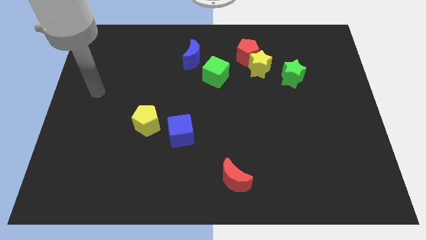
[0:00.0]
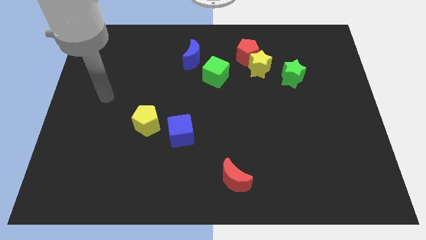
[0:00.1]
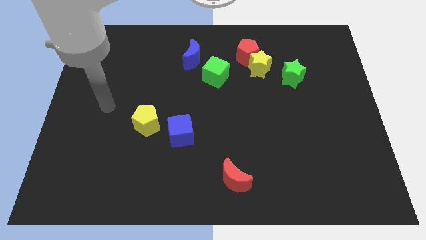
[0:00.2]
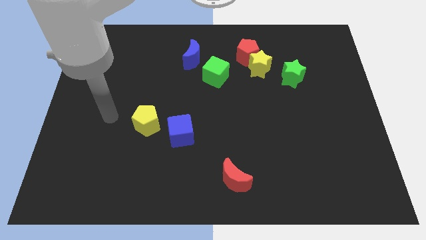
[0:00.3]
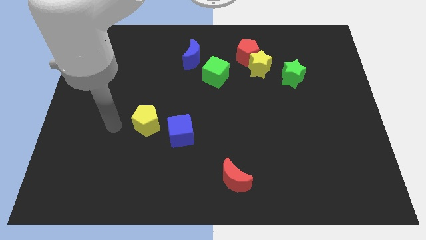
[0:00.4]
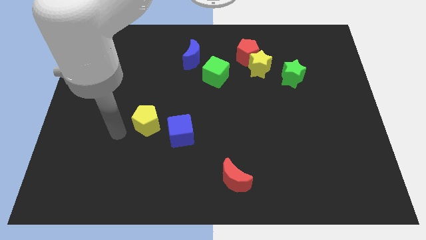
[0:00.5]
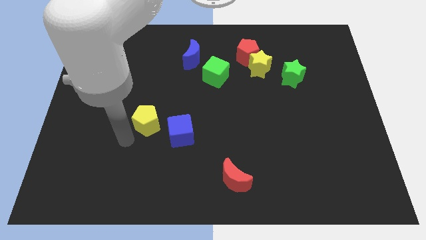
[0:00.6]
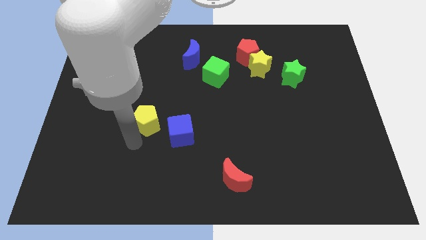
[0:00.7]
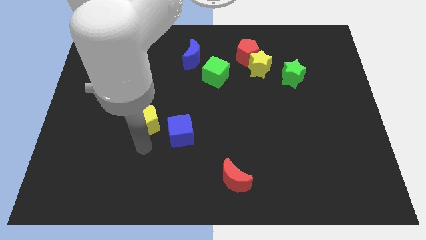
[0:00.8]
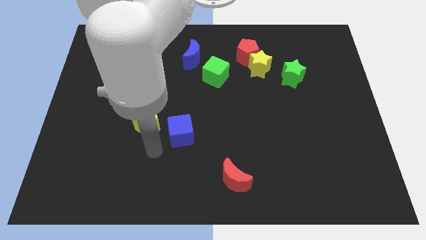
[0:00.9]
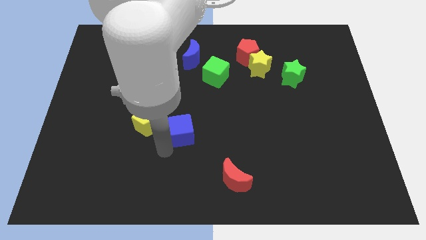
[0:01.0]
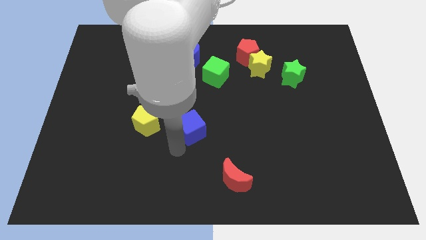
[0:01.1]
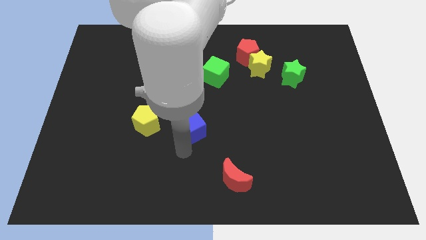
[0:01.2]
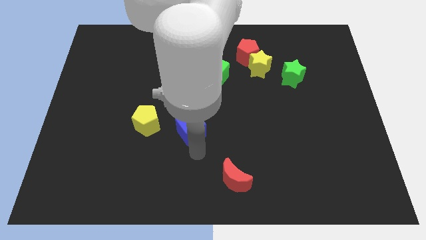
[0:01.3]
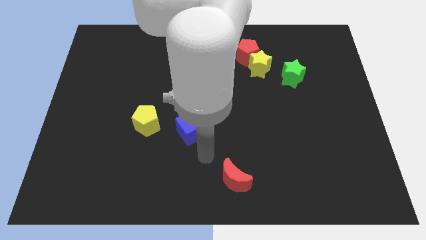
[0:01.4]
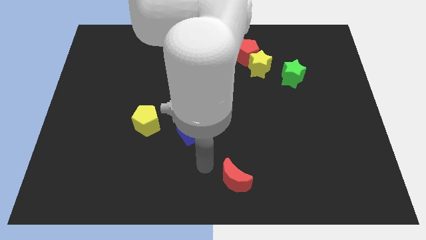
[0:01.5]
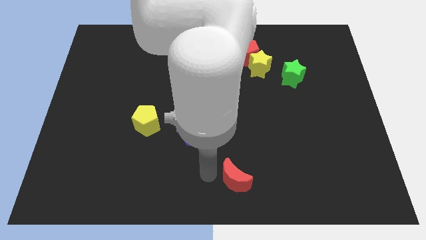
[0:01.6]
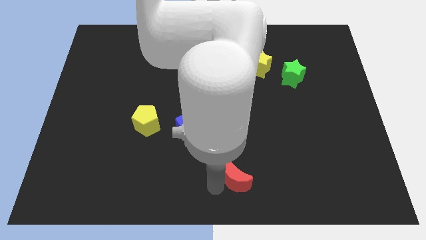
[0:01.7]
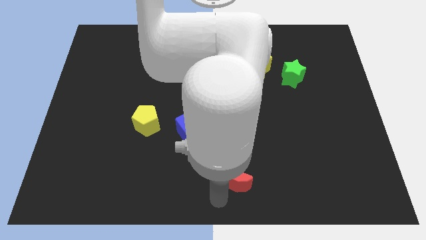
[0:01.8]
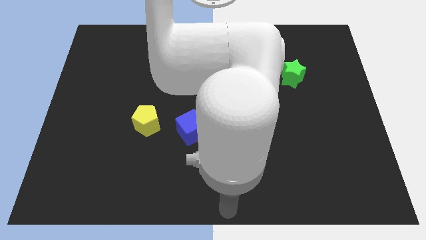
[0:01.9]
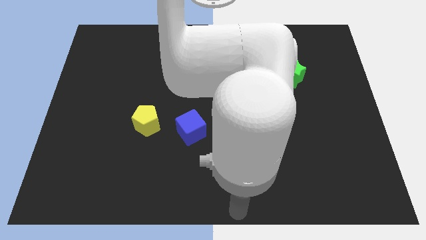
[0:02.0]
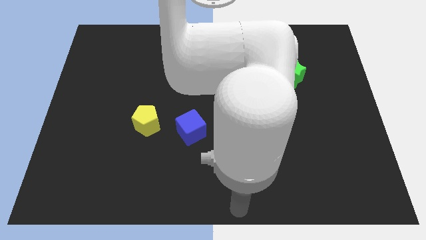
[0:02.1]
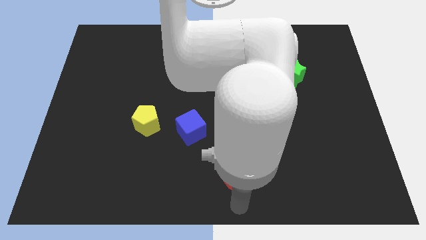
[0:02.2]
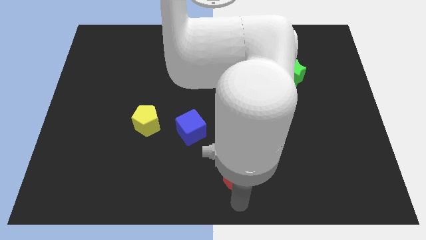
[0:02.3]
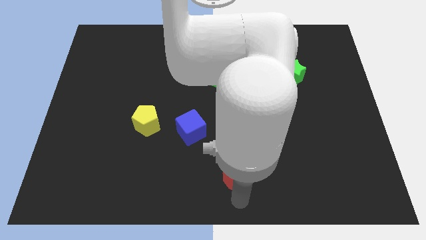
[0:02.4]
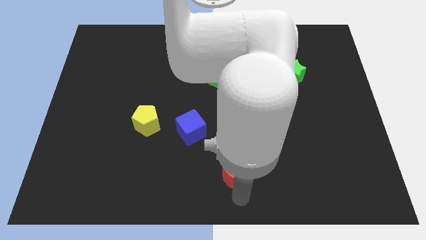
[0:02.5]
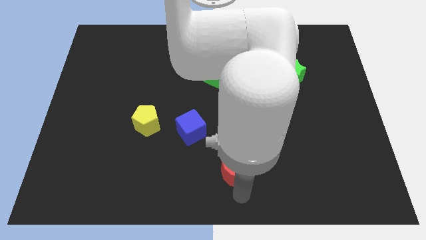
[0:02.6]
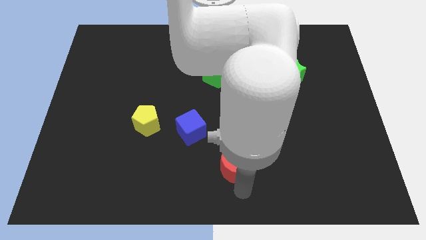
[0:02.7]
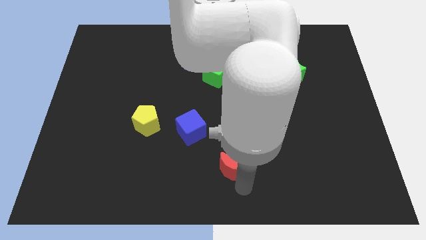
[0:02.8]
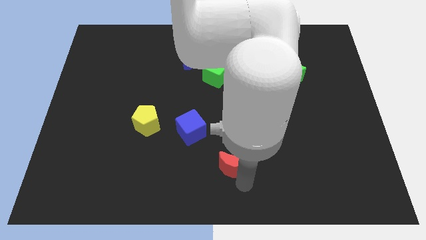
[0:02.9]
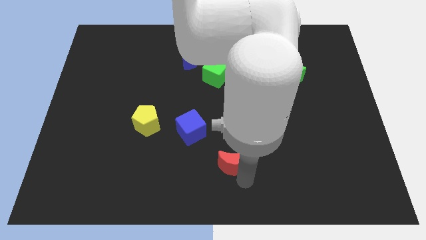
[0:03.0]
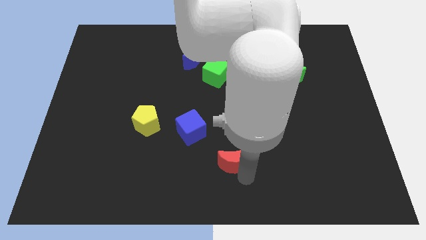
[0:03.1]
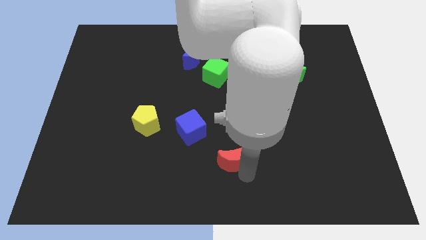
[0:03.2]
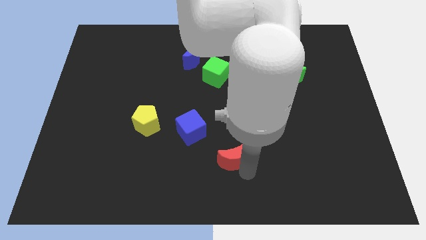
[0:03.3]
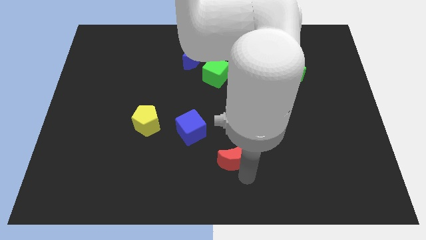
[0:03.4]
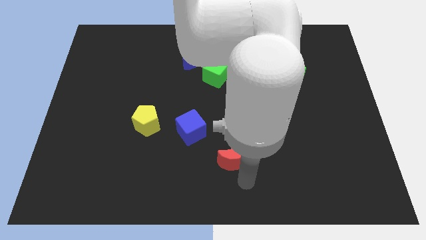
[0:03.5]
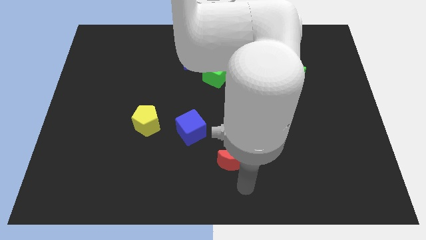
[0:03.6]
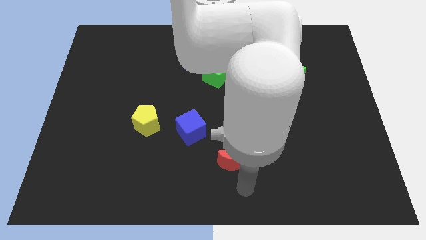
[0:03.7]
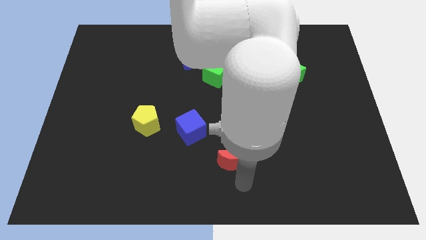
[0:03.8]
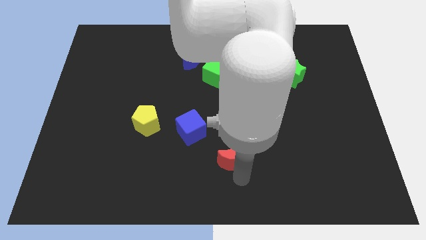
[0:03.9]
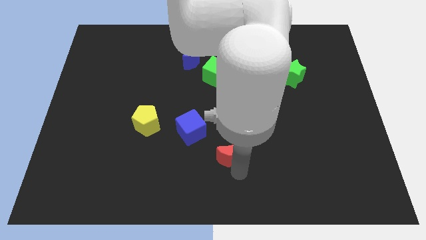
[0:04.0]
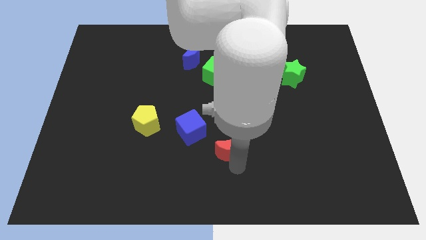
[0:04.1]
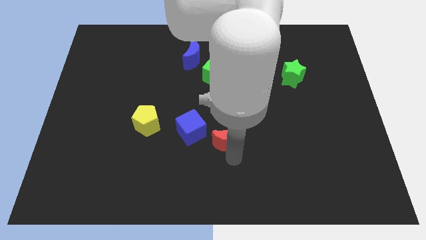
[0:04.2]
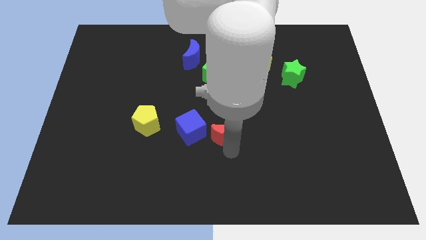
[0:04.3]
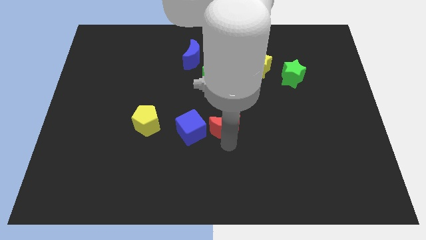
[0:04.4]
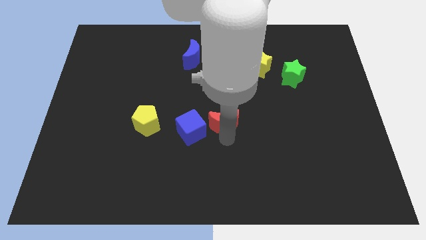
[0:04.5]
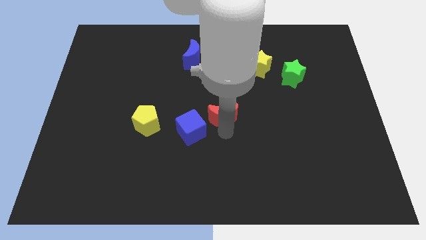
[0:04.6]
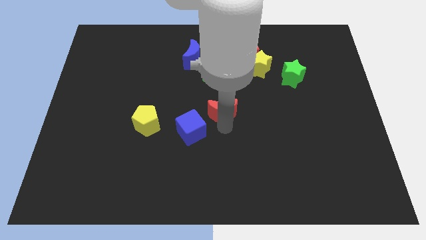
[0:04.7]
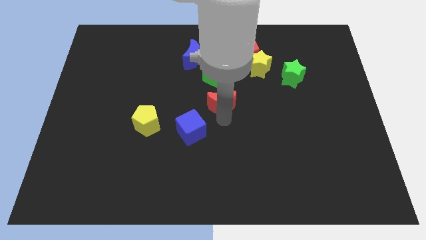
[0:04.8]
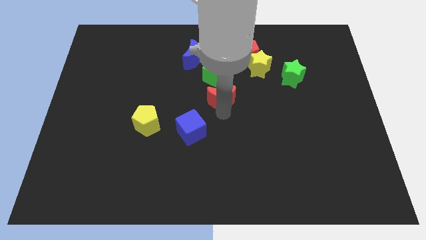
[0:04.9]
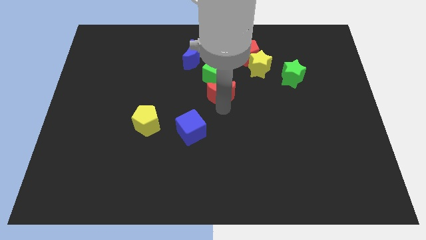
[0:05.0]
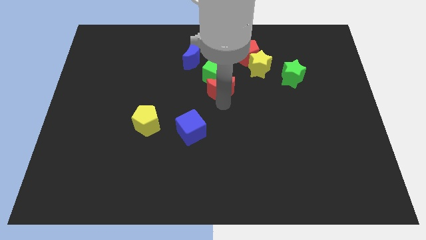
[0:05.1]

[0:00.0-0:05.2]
slide the red moon towards the green cube

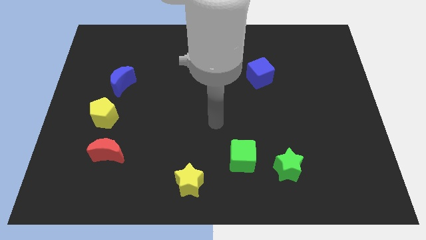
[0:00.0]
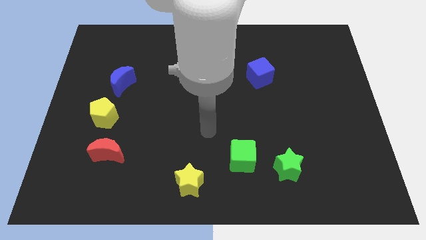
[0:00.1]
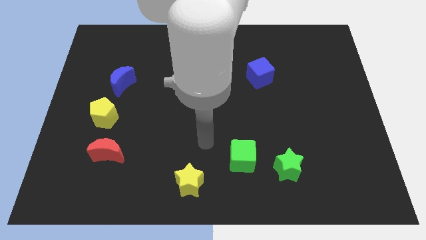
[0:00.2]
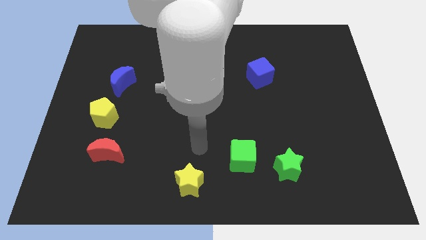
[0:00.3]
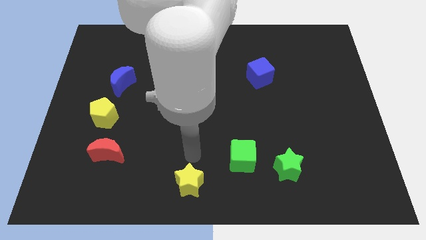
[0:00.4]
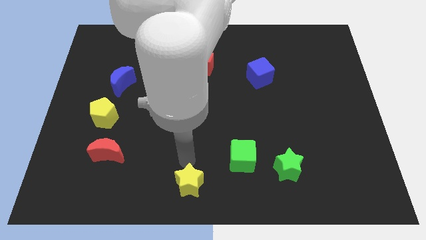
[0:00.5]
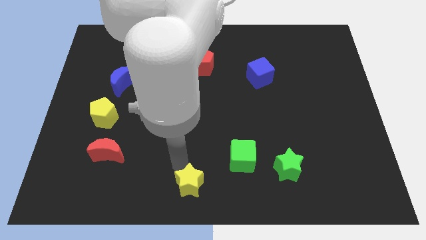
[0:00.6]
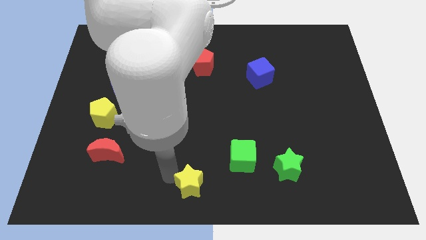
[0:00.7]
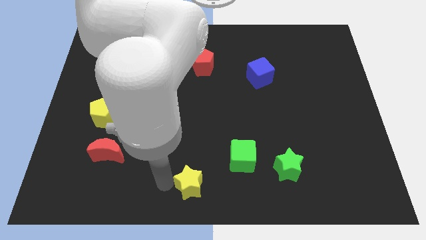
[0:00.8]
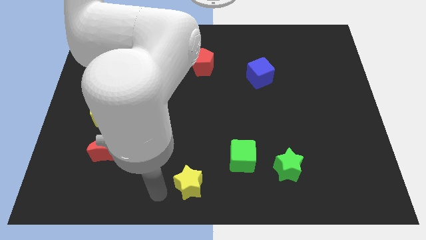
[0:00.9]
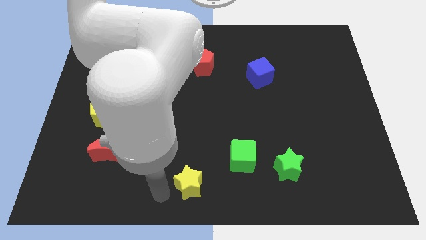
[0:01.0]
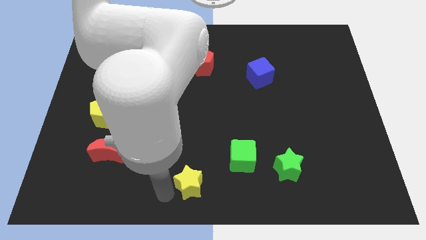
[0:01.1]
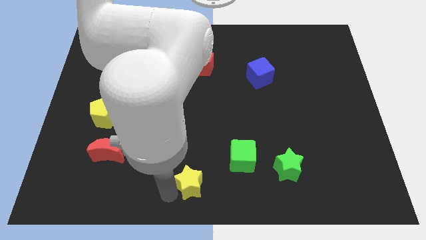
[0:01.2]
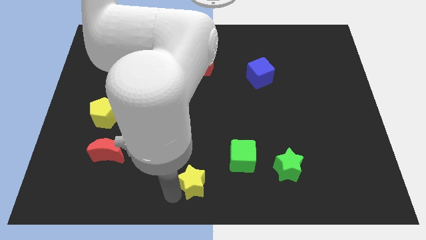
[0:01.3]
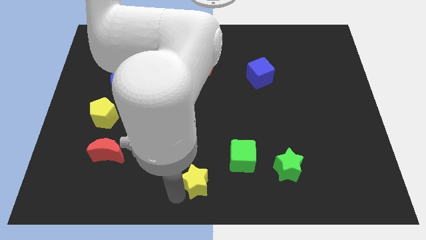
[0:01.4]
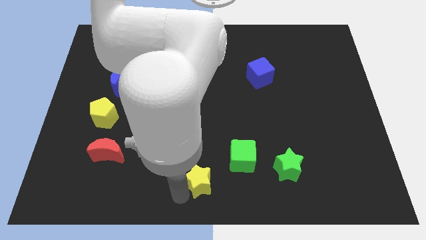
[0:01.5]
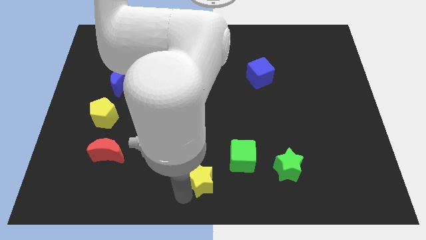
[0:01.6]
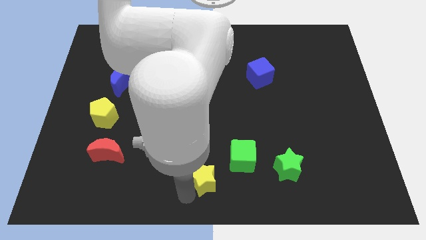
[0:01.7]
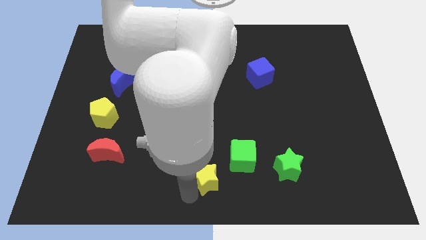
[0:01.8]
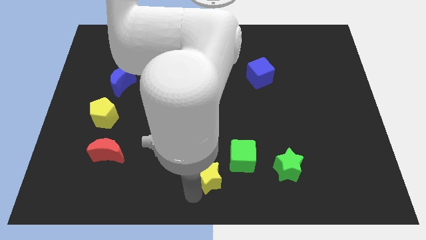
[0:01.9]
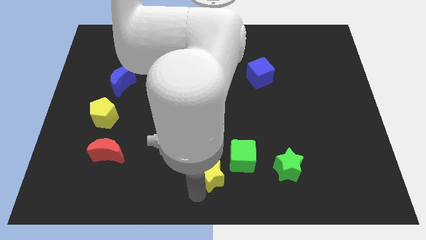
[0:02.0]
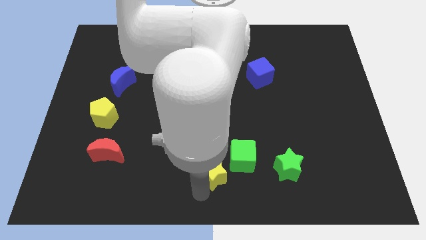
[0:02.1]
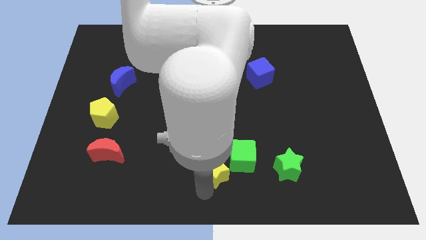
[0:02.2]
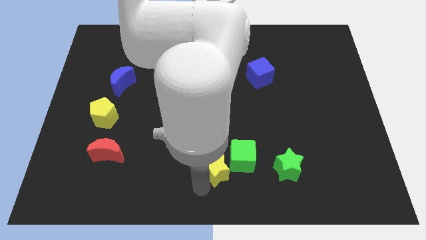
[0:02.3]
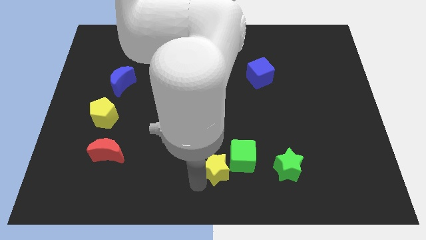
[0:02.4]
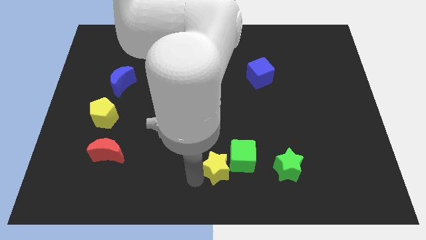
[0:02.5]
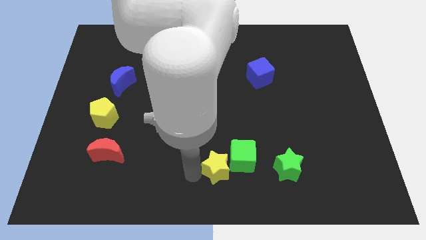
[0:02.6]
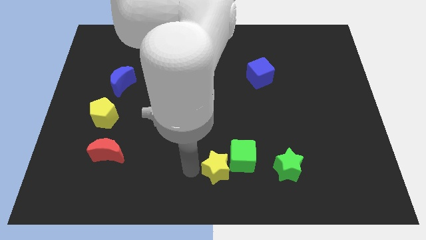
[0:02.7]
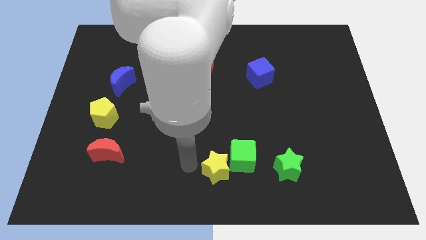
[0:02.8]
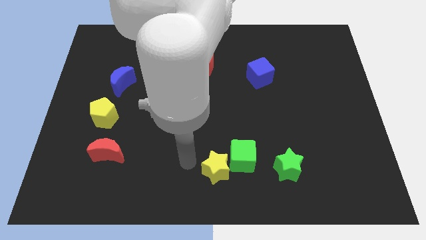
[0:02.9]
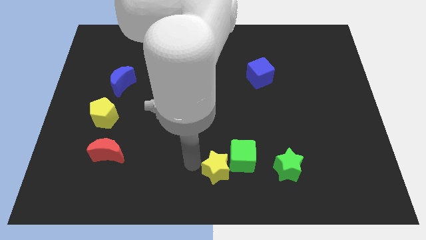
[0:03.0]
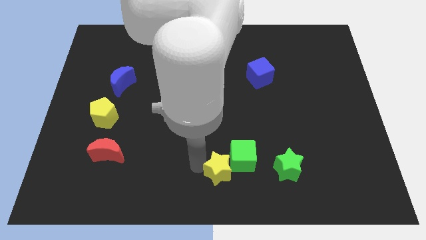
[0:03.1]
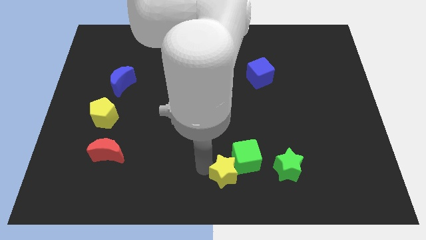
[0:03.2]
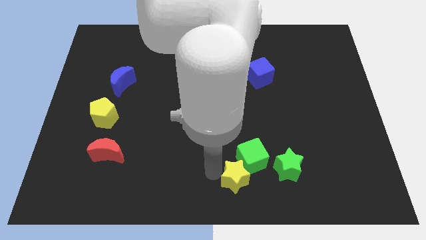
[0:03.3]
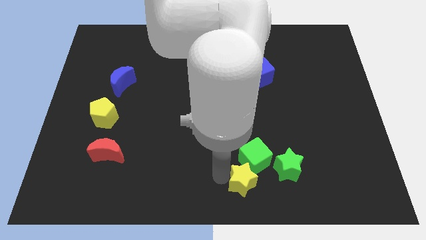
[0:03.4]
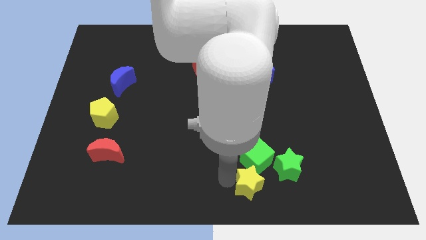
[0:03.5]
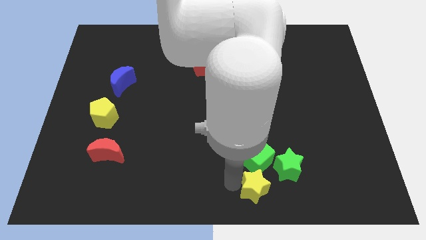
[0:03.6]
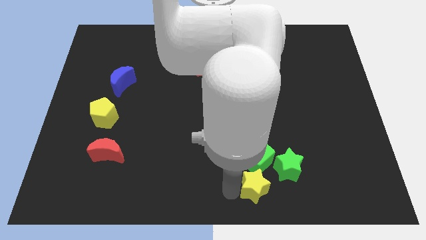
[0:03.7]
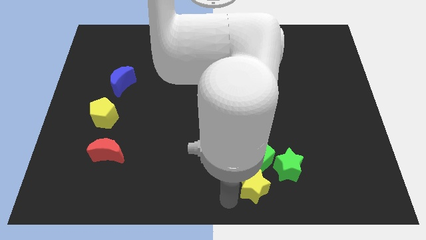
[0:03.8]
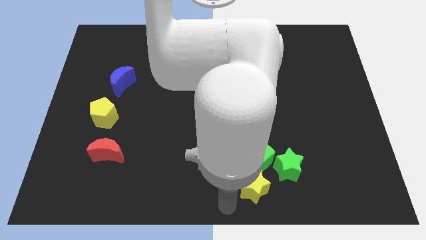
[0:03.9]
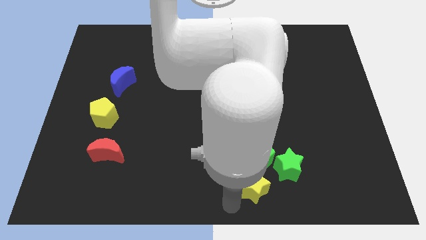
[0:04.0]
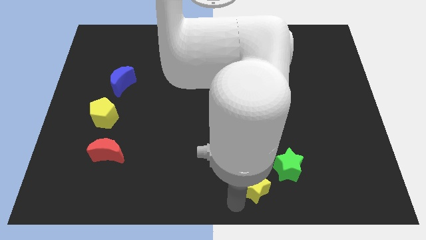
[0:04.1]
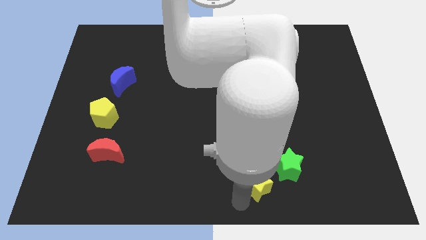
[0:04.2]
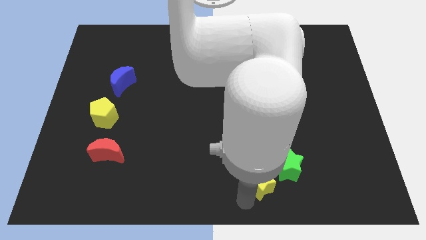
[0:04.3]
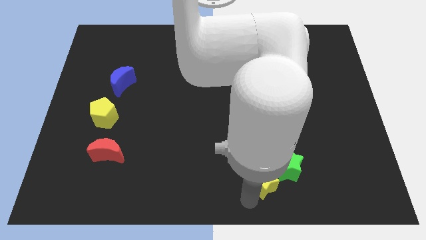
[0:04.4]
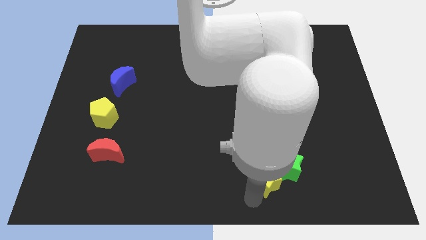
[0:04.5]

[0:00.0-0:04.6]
slide the yellow star to the green star
